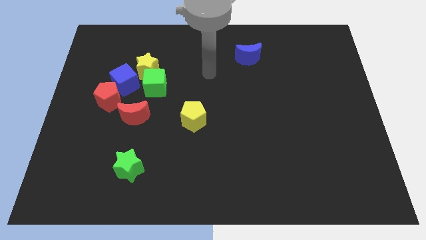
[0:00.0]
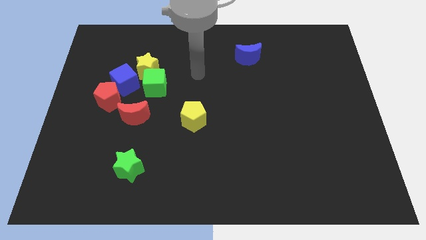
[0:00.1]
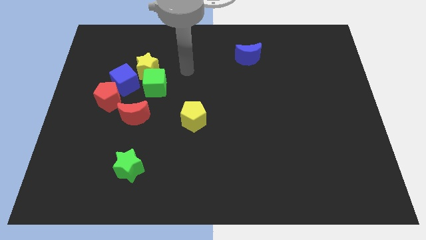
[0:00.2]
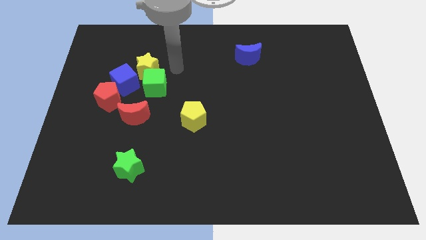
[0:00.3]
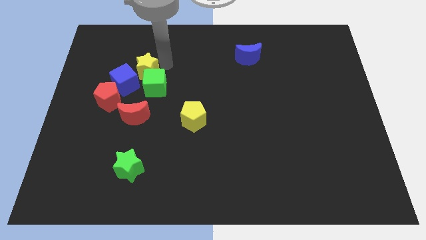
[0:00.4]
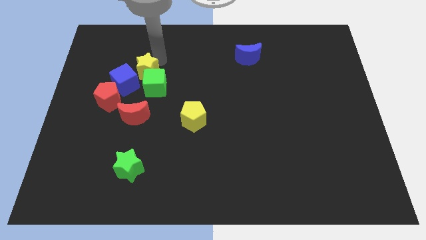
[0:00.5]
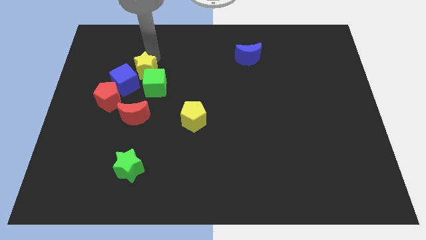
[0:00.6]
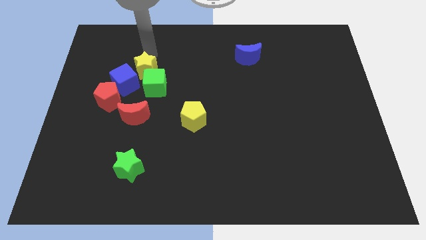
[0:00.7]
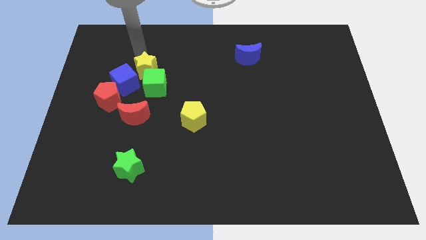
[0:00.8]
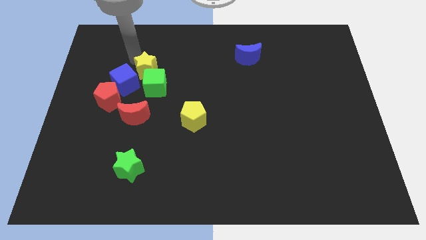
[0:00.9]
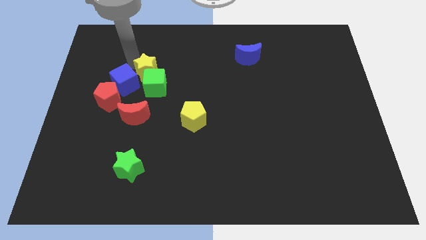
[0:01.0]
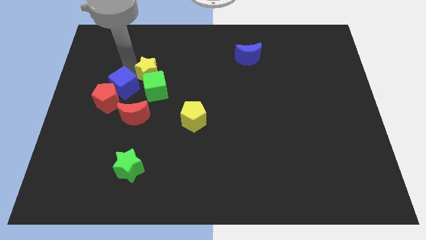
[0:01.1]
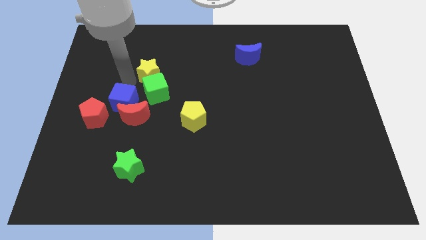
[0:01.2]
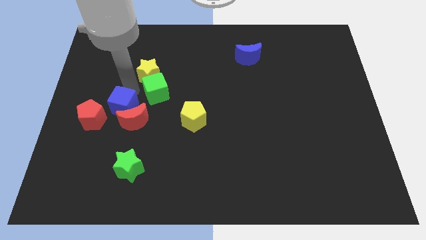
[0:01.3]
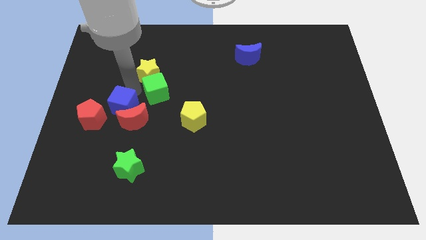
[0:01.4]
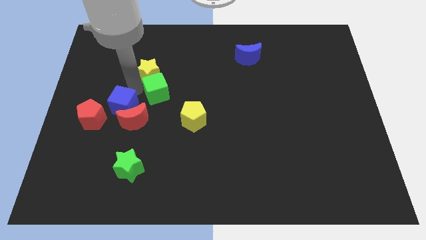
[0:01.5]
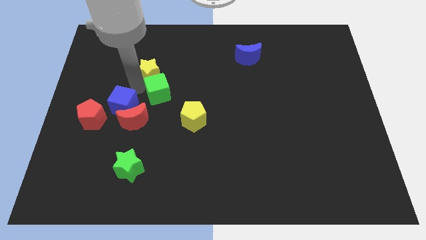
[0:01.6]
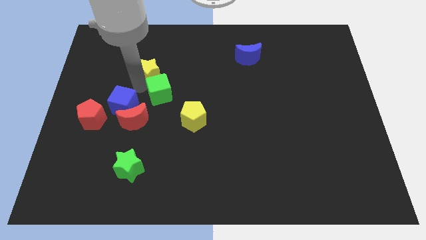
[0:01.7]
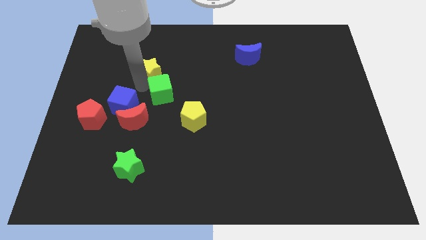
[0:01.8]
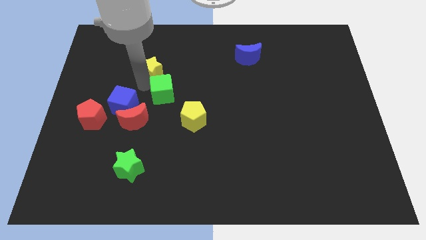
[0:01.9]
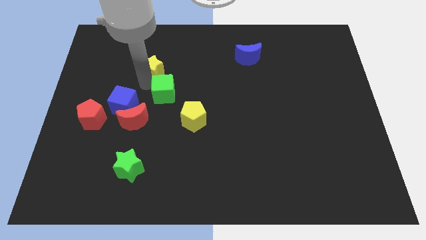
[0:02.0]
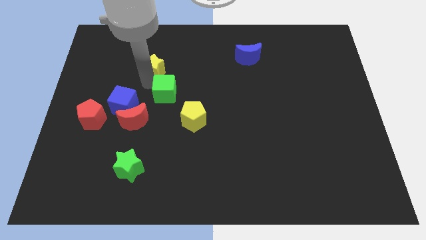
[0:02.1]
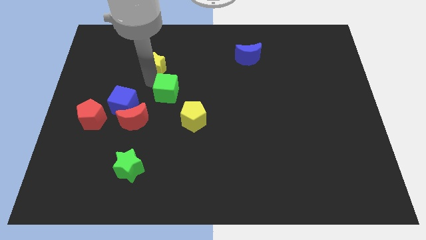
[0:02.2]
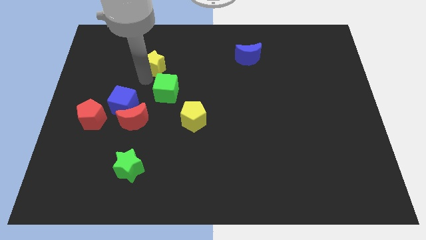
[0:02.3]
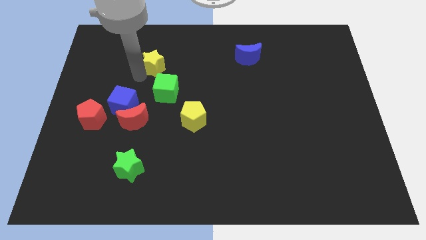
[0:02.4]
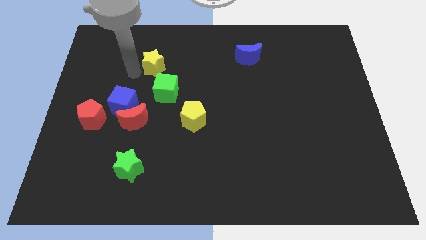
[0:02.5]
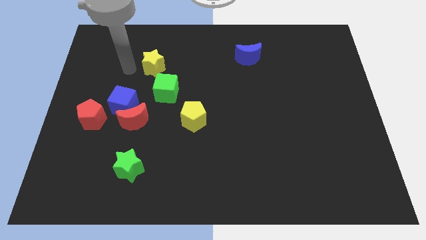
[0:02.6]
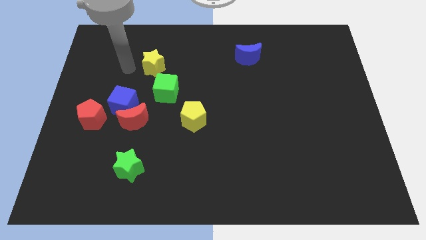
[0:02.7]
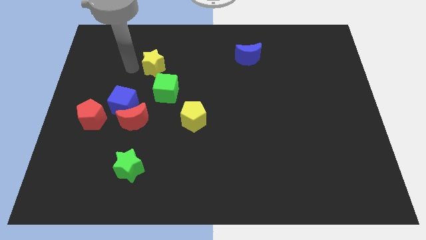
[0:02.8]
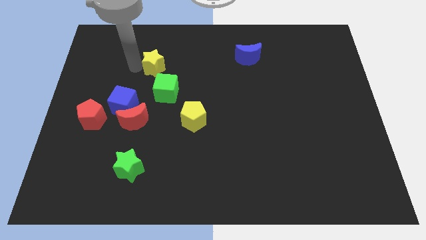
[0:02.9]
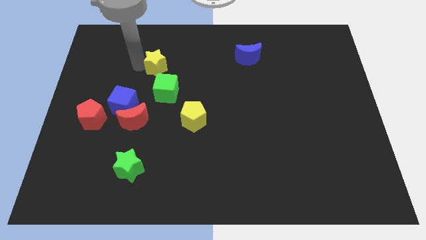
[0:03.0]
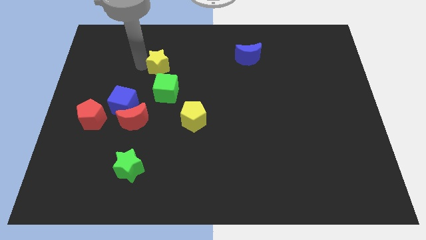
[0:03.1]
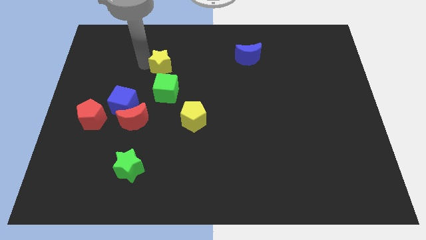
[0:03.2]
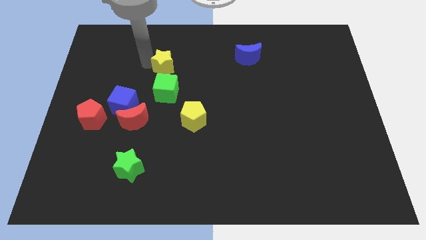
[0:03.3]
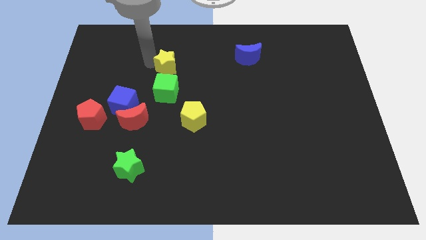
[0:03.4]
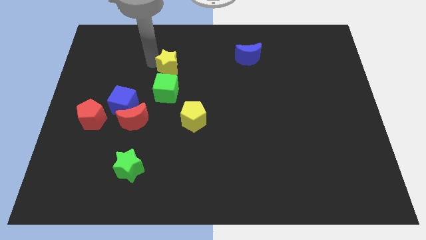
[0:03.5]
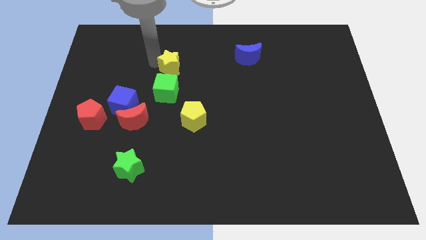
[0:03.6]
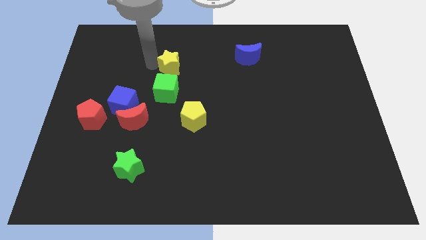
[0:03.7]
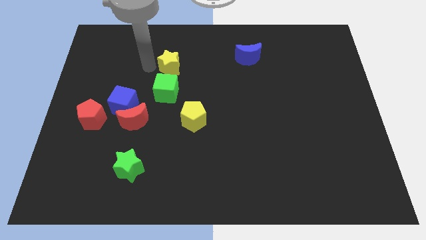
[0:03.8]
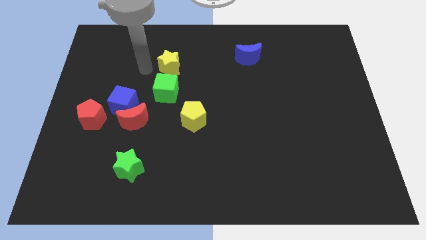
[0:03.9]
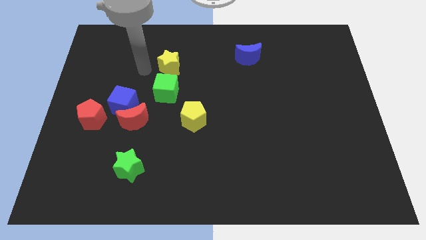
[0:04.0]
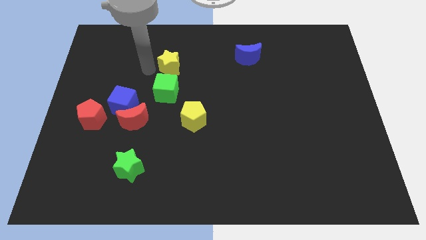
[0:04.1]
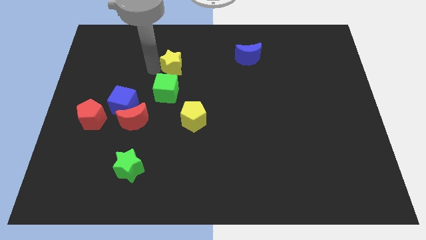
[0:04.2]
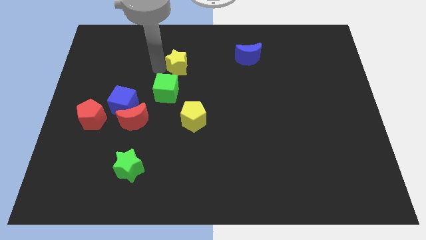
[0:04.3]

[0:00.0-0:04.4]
slightly push the yellow star to the right

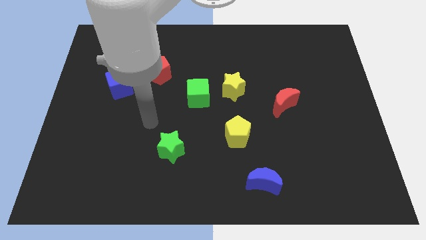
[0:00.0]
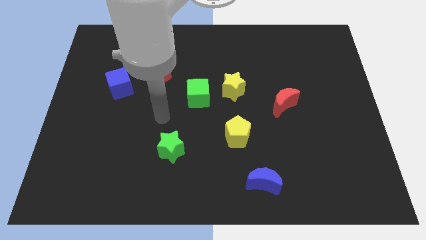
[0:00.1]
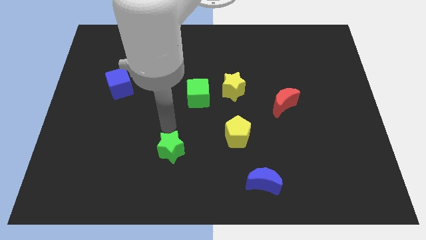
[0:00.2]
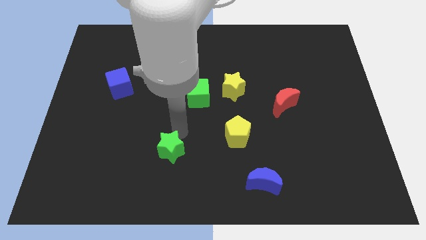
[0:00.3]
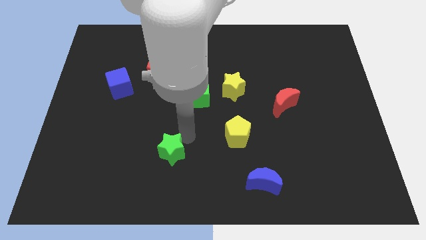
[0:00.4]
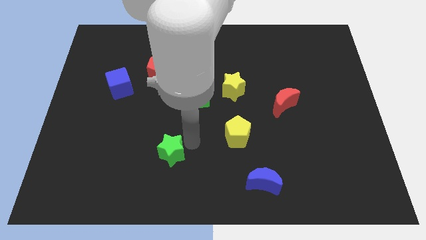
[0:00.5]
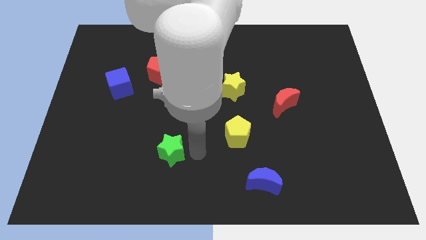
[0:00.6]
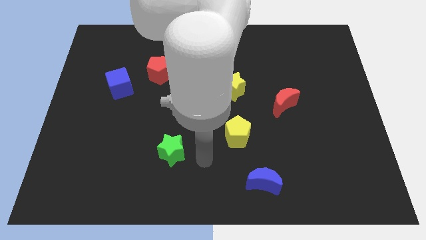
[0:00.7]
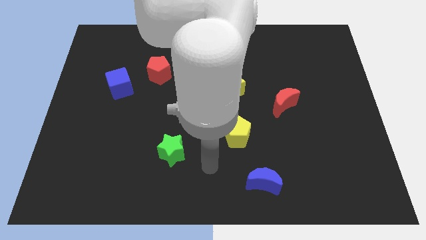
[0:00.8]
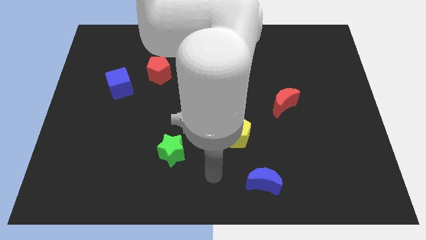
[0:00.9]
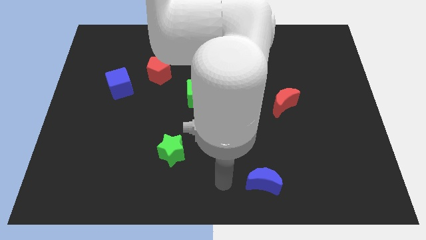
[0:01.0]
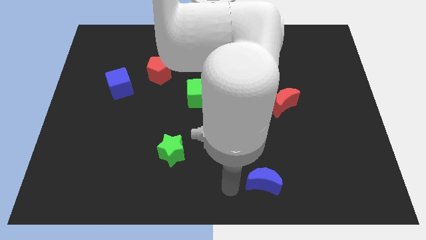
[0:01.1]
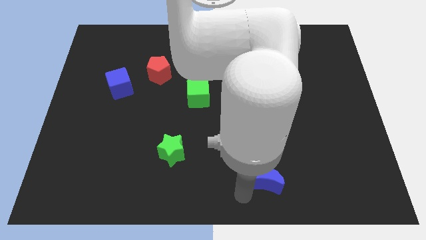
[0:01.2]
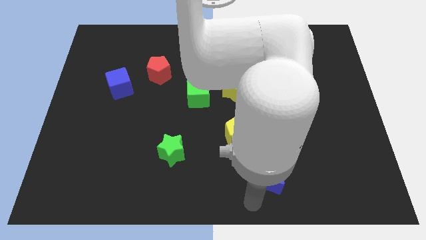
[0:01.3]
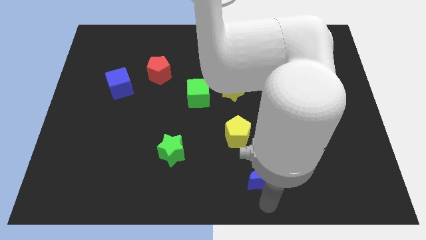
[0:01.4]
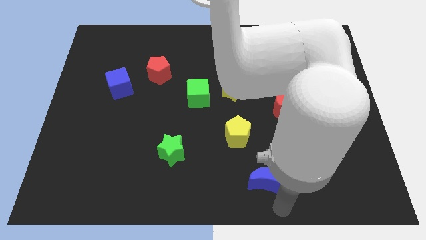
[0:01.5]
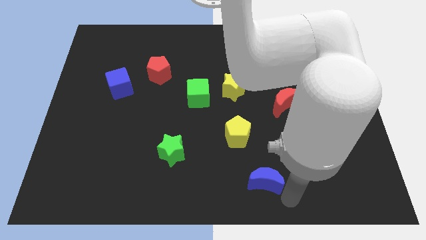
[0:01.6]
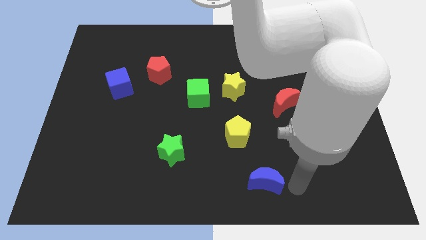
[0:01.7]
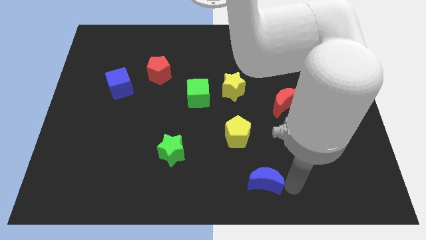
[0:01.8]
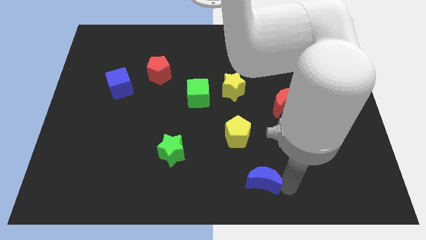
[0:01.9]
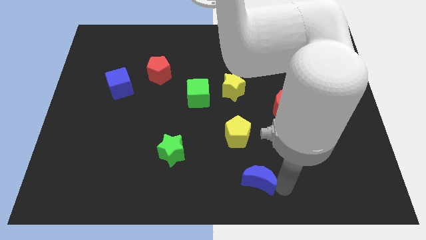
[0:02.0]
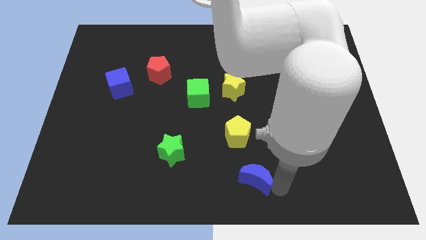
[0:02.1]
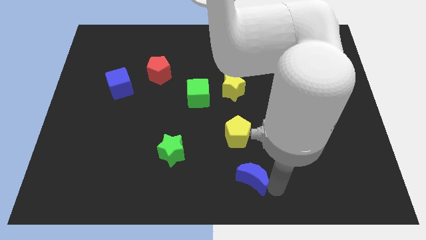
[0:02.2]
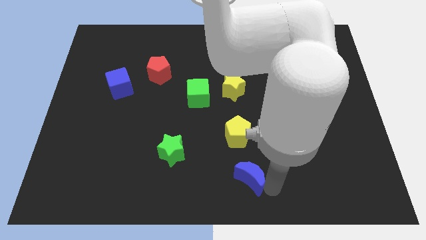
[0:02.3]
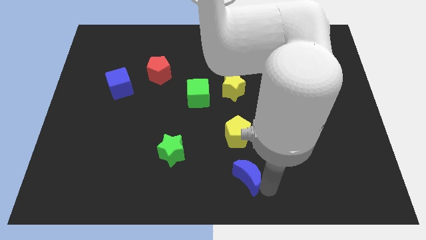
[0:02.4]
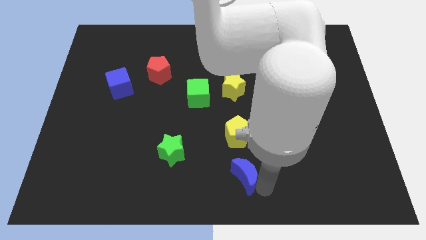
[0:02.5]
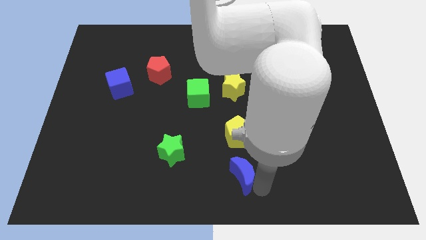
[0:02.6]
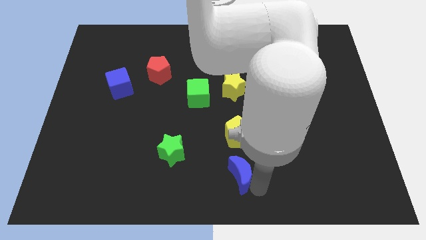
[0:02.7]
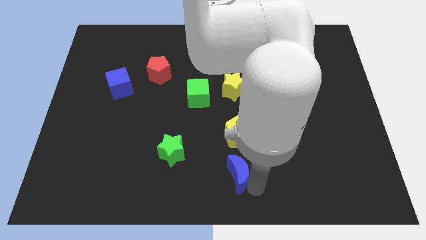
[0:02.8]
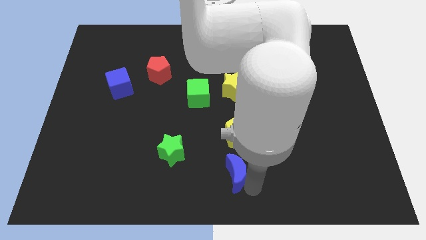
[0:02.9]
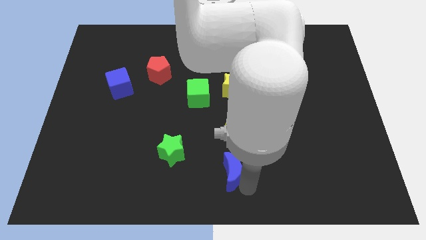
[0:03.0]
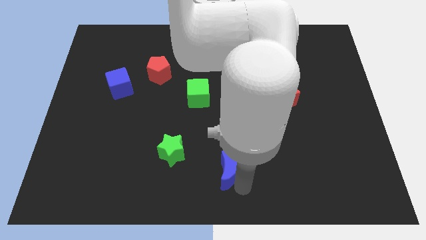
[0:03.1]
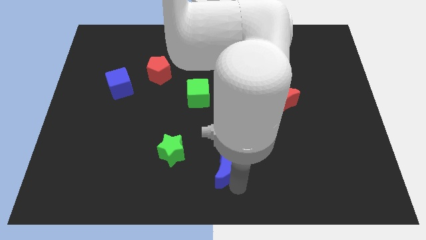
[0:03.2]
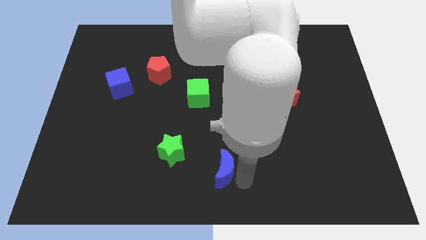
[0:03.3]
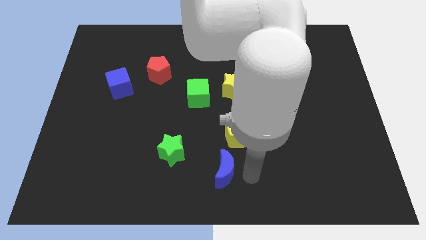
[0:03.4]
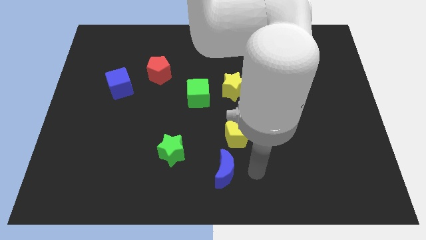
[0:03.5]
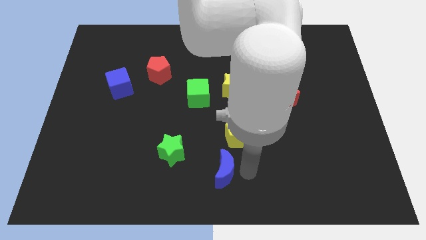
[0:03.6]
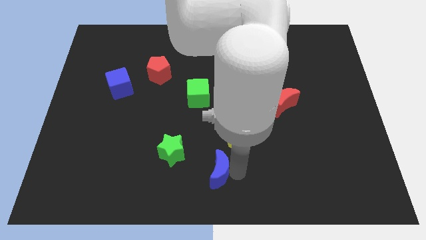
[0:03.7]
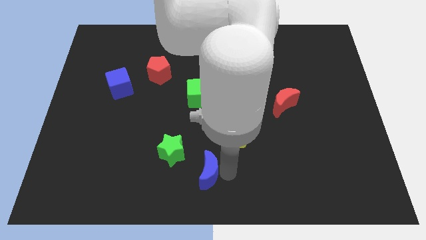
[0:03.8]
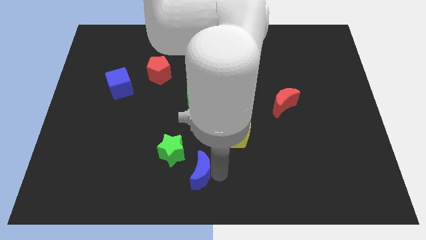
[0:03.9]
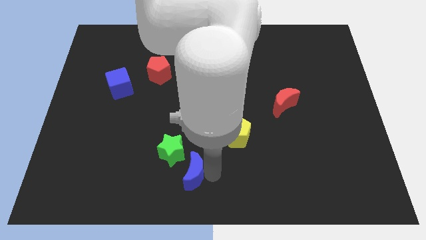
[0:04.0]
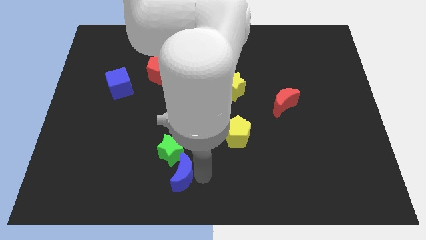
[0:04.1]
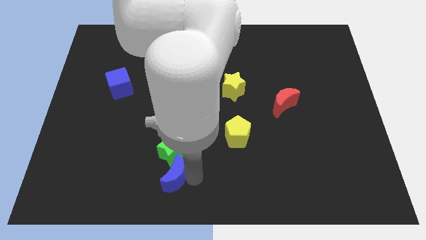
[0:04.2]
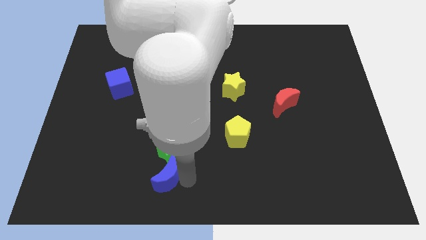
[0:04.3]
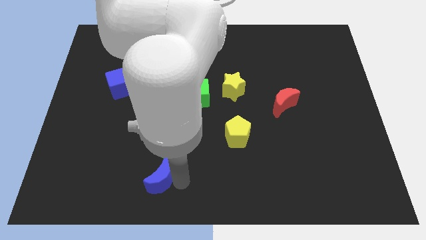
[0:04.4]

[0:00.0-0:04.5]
slide the blue moon left
